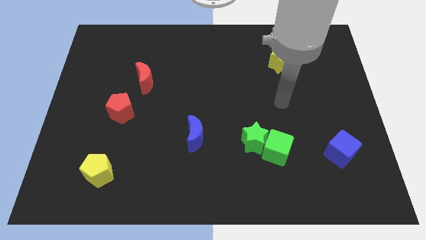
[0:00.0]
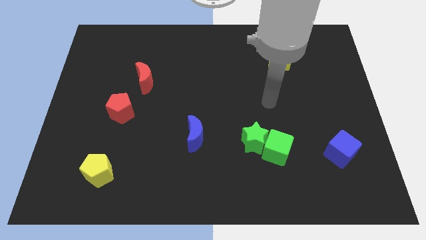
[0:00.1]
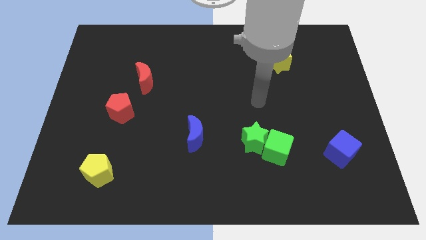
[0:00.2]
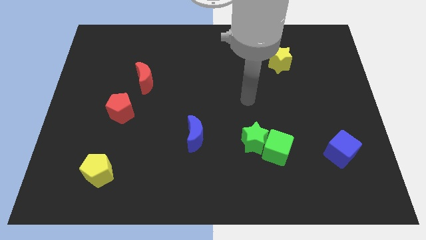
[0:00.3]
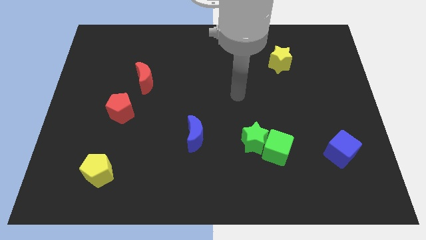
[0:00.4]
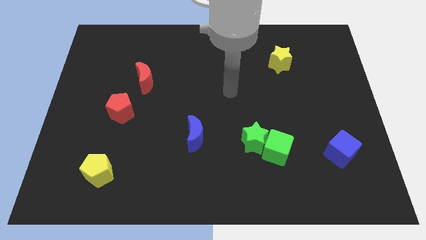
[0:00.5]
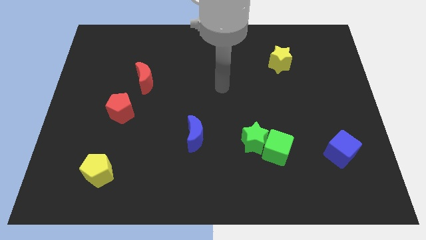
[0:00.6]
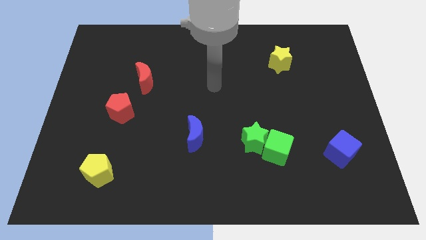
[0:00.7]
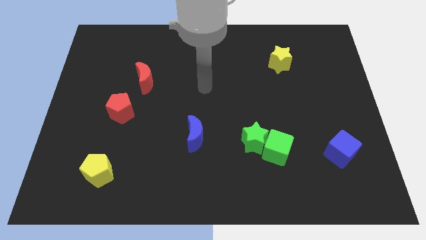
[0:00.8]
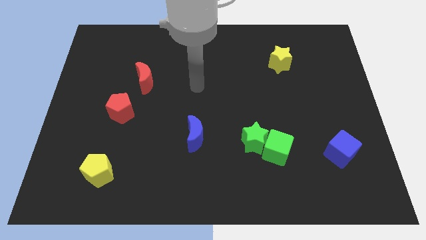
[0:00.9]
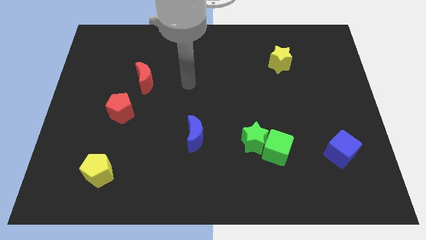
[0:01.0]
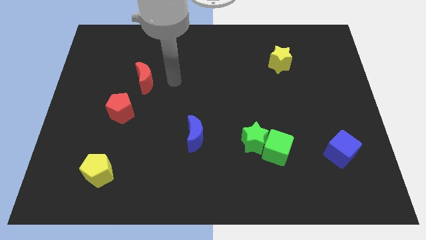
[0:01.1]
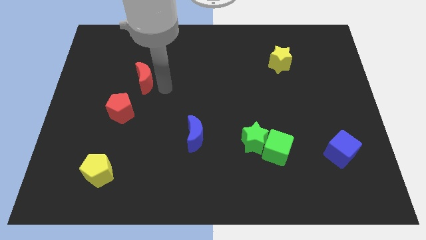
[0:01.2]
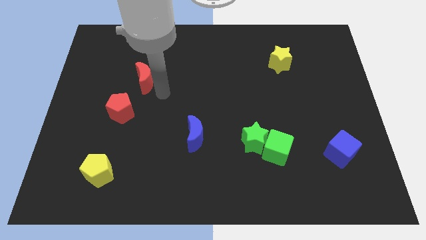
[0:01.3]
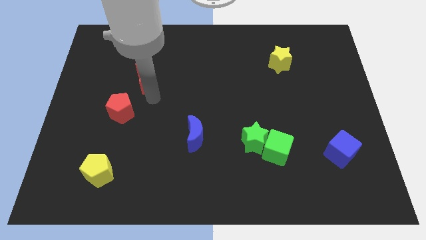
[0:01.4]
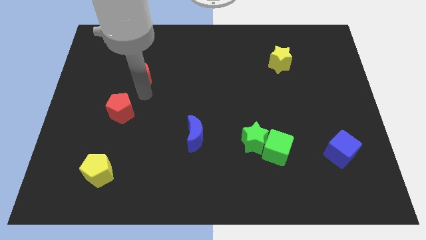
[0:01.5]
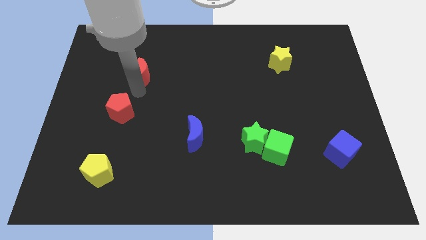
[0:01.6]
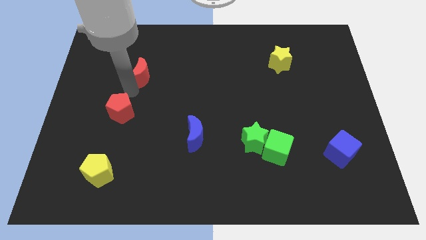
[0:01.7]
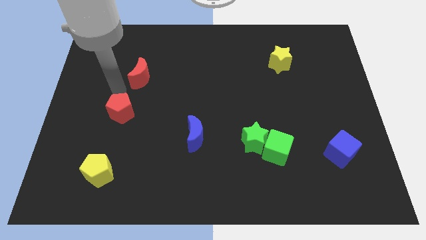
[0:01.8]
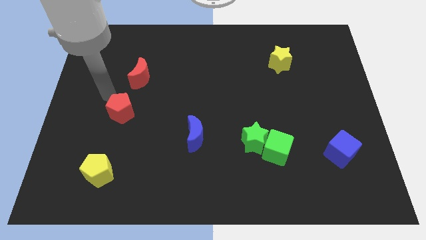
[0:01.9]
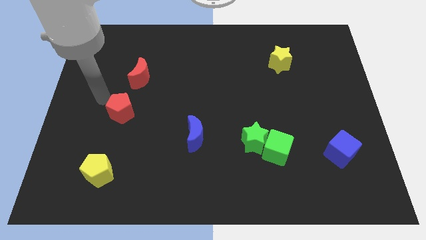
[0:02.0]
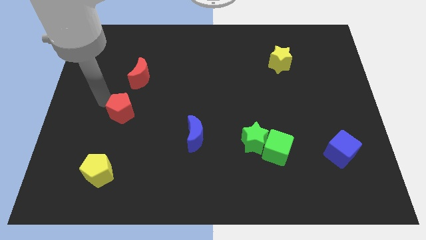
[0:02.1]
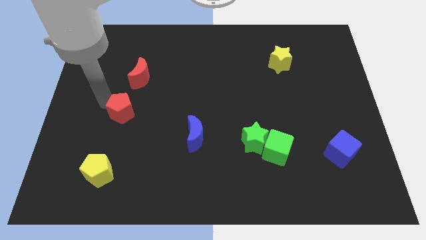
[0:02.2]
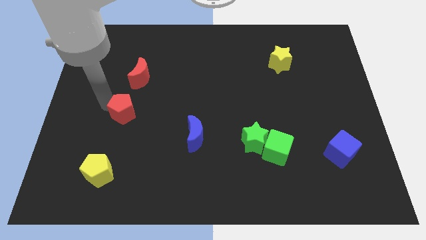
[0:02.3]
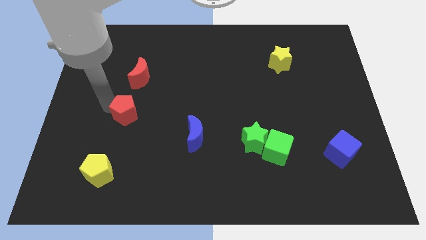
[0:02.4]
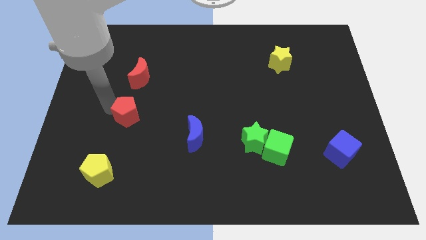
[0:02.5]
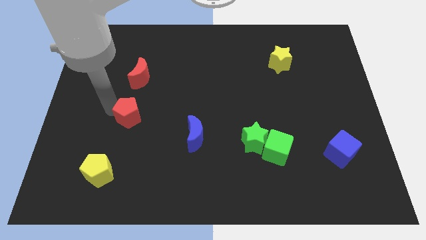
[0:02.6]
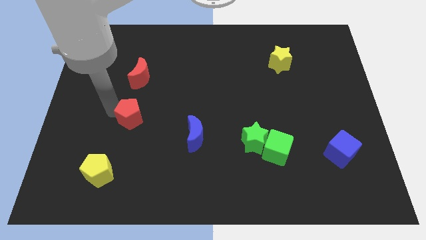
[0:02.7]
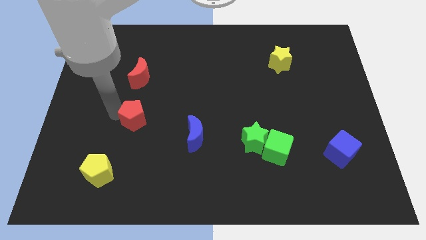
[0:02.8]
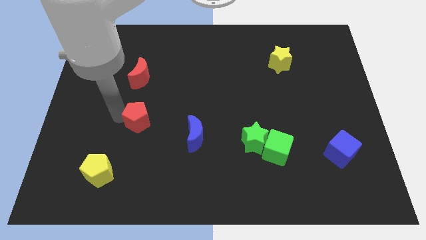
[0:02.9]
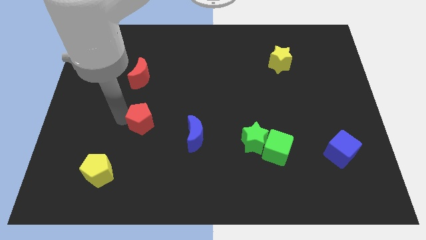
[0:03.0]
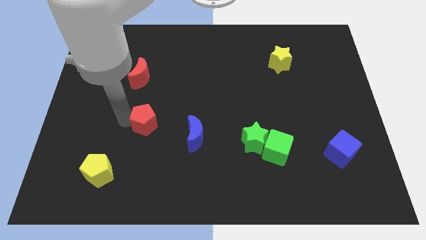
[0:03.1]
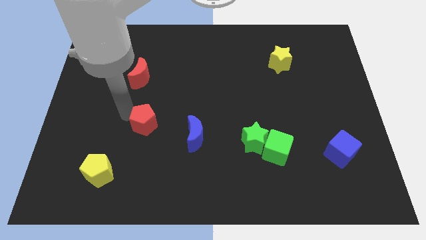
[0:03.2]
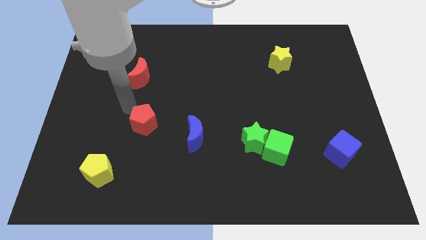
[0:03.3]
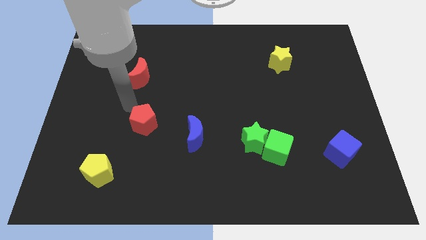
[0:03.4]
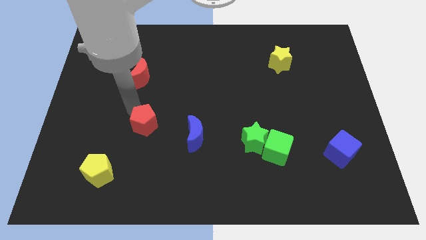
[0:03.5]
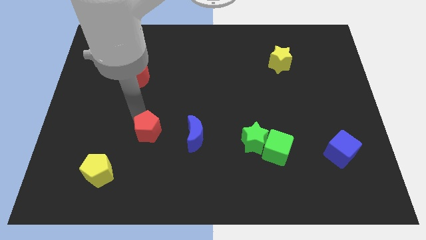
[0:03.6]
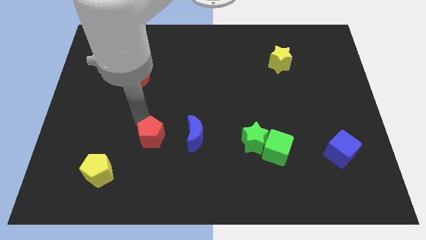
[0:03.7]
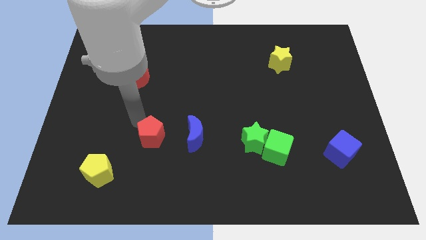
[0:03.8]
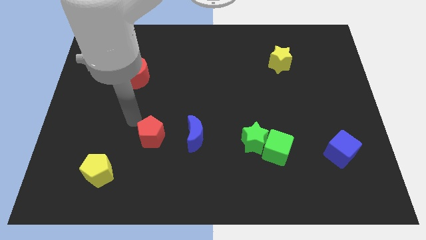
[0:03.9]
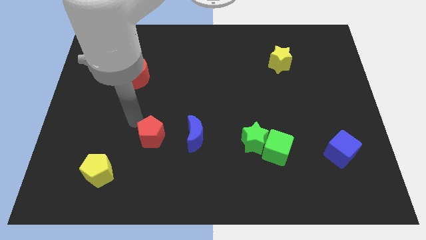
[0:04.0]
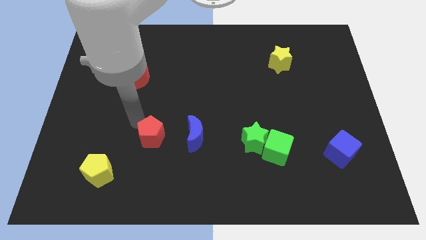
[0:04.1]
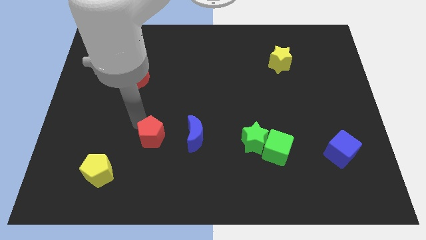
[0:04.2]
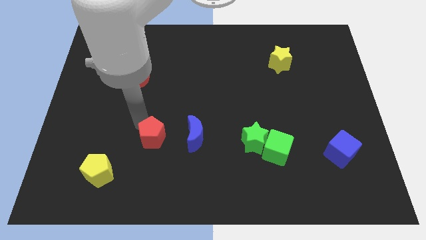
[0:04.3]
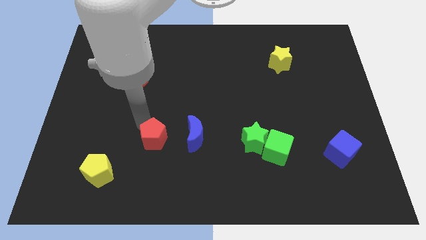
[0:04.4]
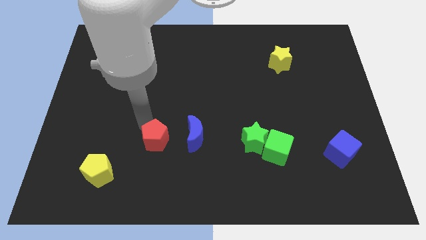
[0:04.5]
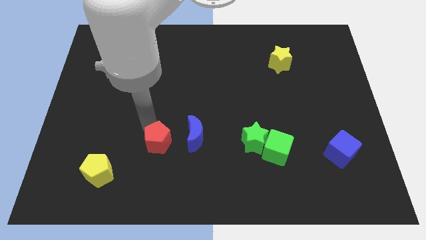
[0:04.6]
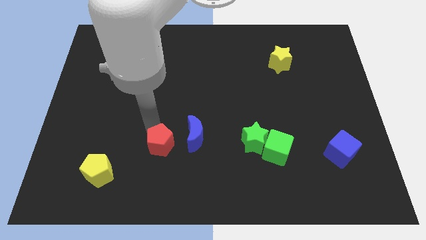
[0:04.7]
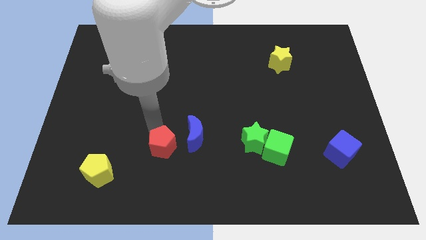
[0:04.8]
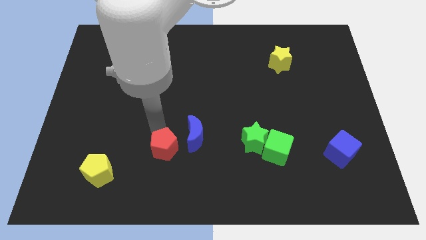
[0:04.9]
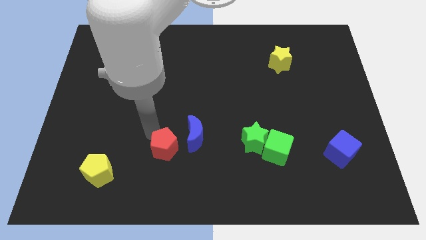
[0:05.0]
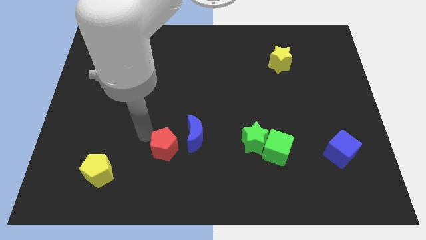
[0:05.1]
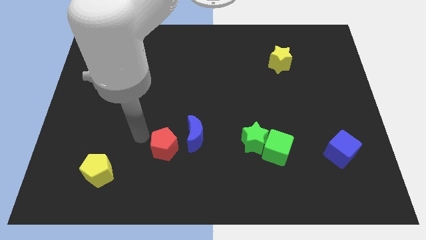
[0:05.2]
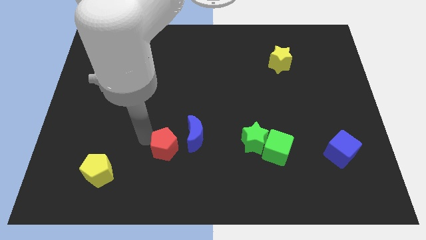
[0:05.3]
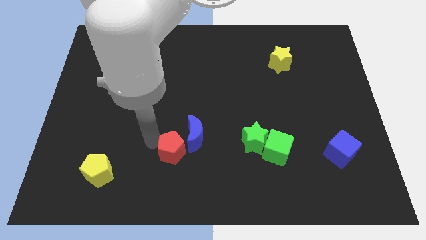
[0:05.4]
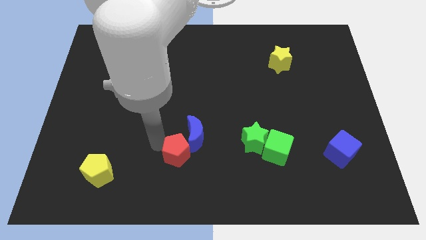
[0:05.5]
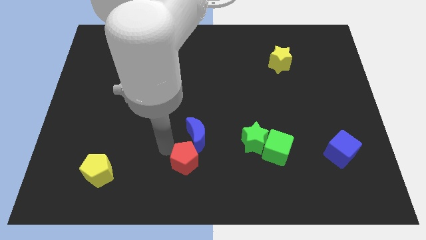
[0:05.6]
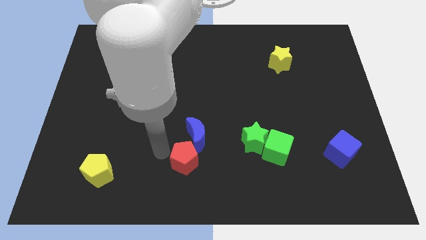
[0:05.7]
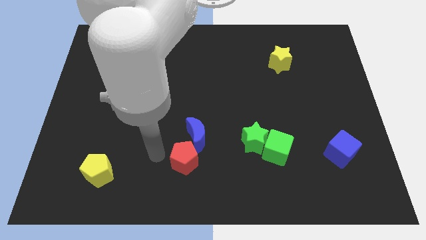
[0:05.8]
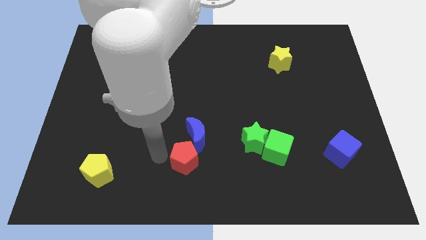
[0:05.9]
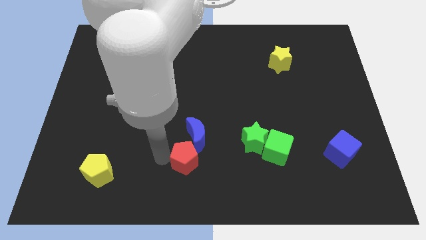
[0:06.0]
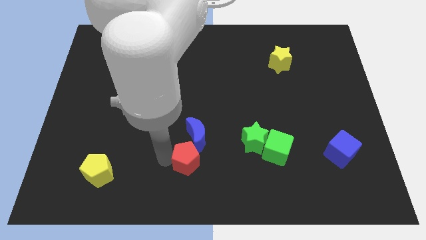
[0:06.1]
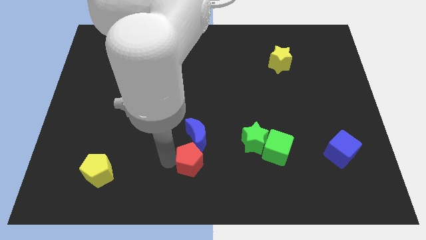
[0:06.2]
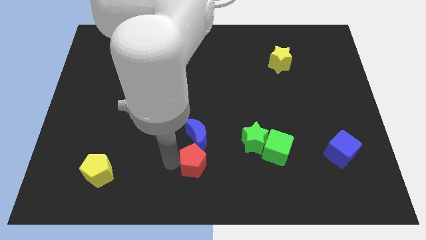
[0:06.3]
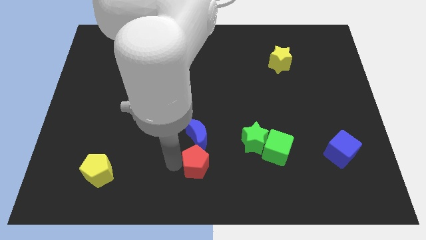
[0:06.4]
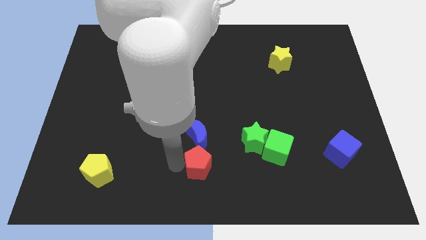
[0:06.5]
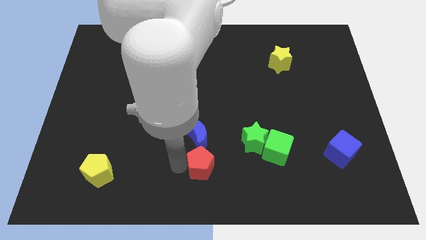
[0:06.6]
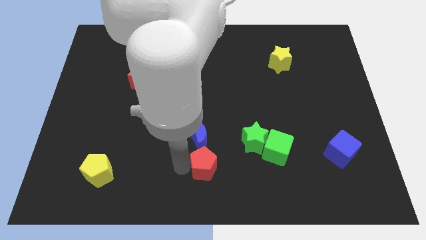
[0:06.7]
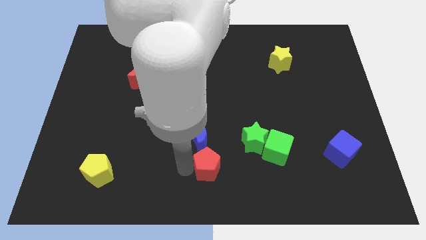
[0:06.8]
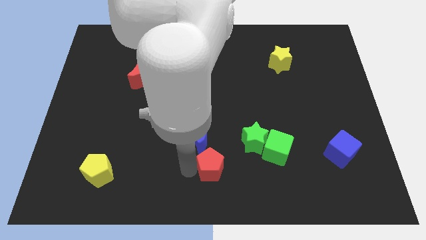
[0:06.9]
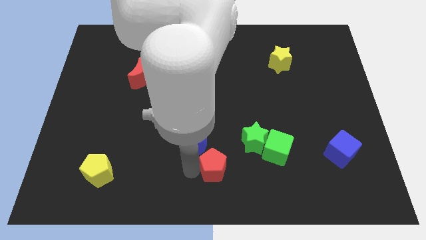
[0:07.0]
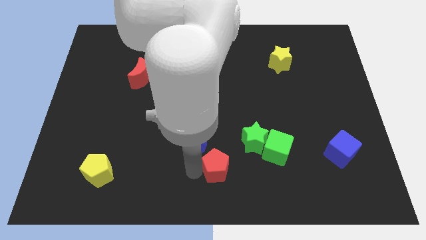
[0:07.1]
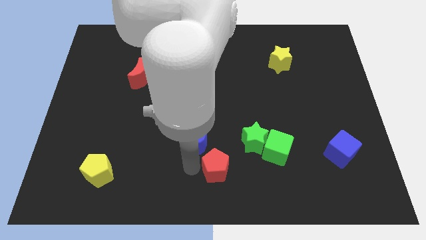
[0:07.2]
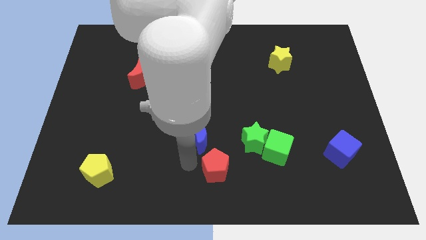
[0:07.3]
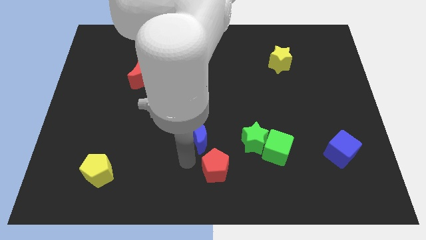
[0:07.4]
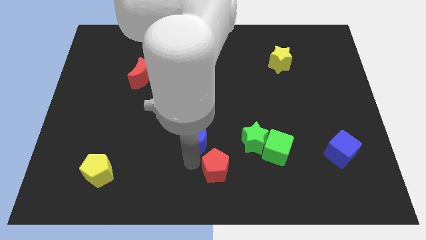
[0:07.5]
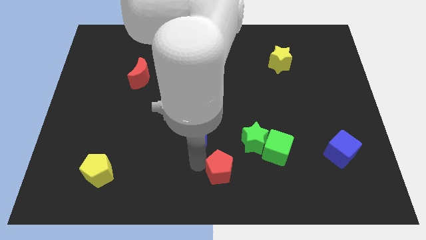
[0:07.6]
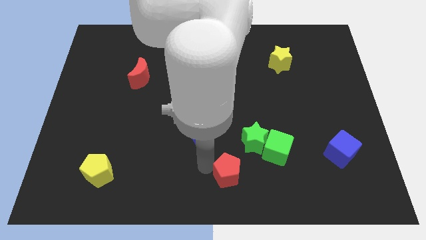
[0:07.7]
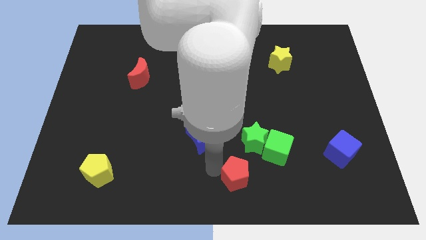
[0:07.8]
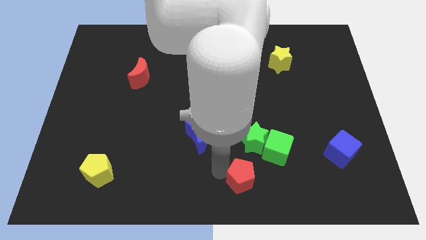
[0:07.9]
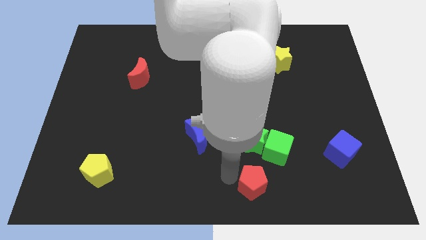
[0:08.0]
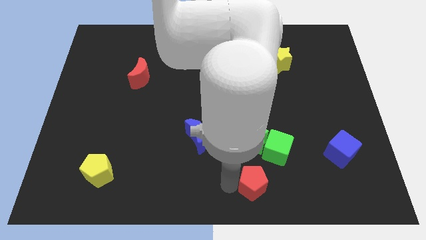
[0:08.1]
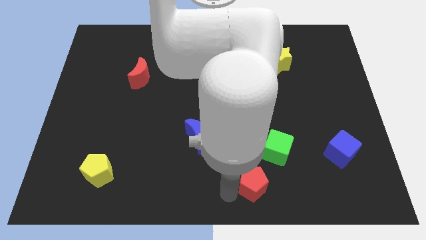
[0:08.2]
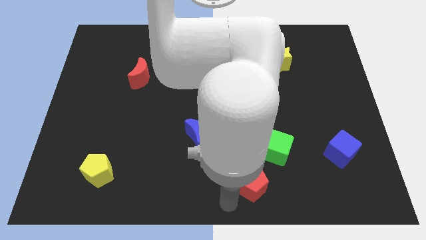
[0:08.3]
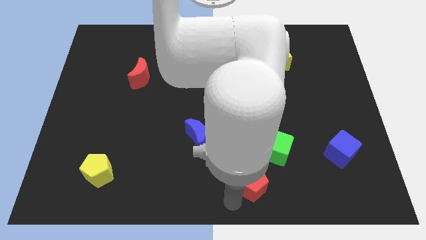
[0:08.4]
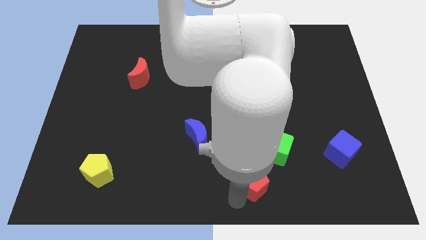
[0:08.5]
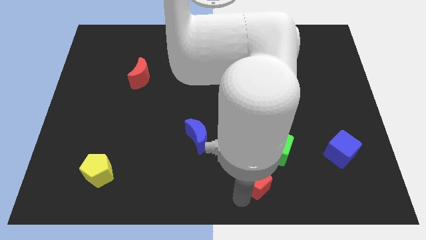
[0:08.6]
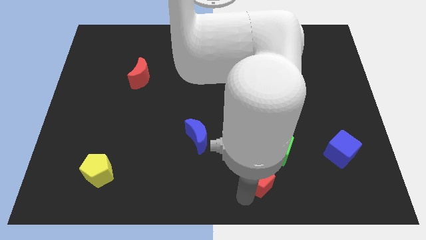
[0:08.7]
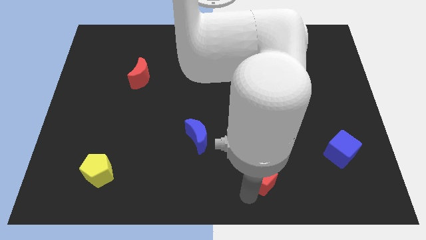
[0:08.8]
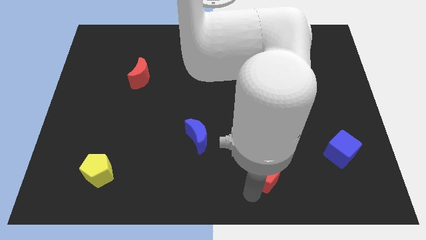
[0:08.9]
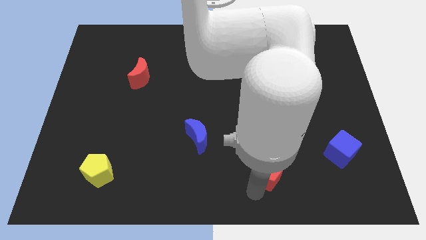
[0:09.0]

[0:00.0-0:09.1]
push the red pentagon to the bottom right side of the green star
